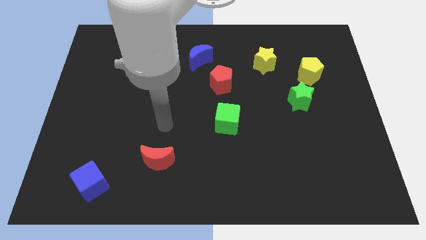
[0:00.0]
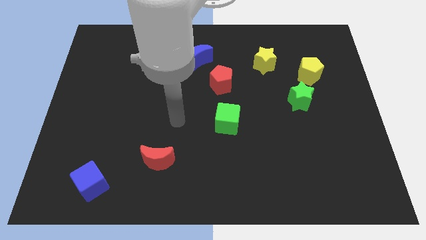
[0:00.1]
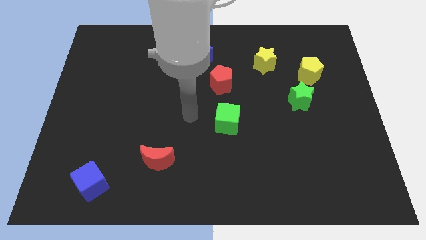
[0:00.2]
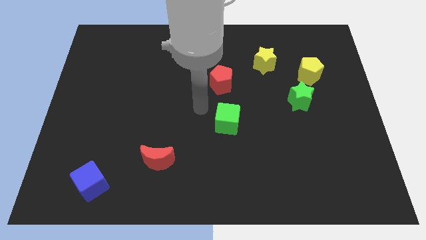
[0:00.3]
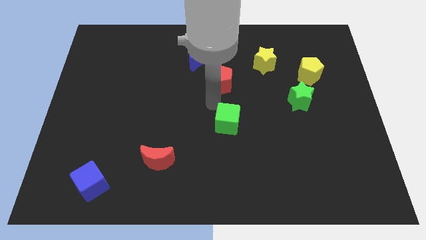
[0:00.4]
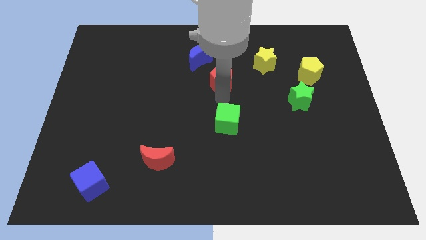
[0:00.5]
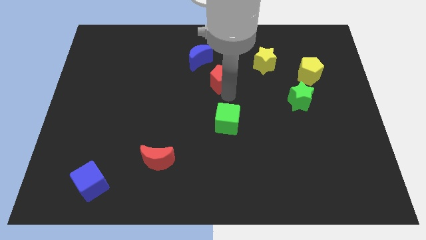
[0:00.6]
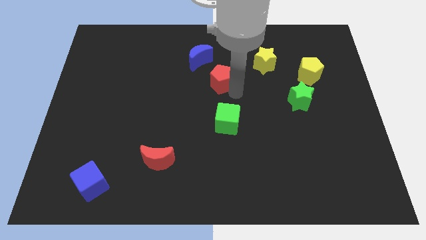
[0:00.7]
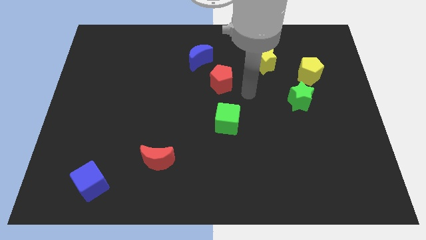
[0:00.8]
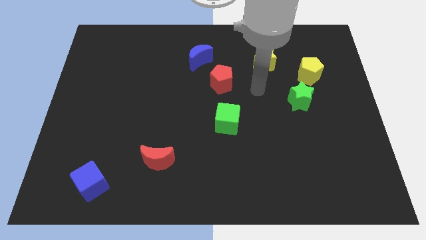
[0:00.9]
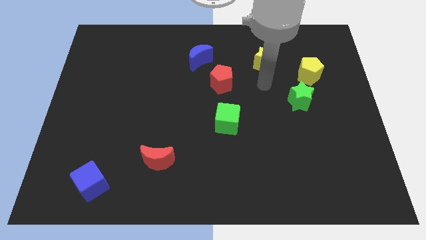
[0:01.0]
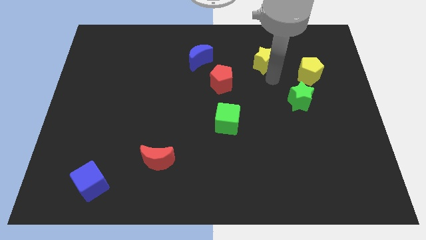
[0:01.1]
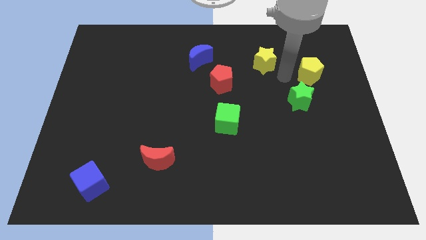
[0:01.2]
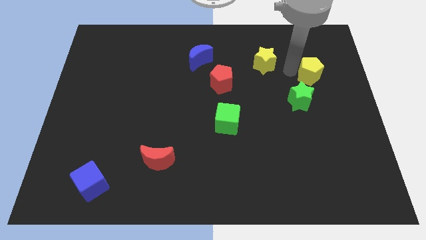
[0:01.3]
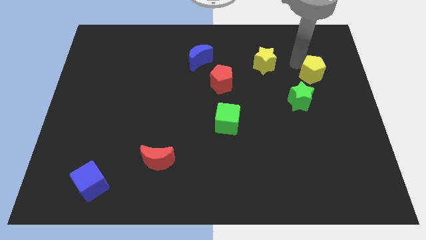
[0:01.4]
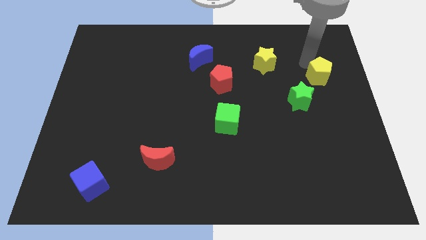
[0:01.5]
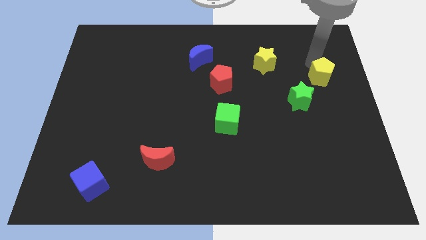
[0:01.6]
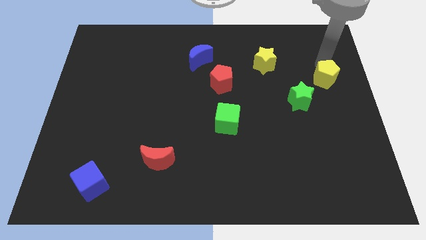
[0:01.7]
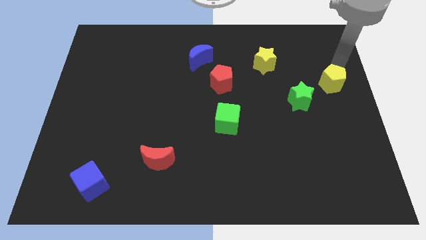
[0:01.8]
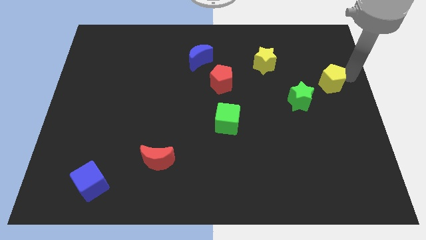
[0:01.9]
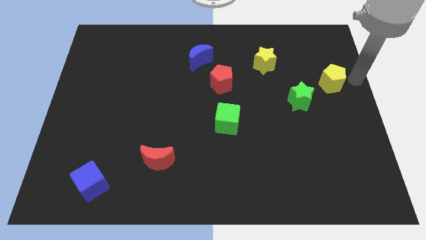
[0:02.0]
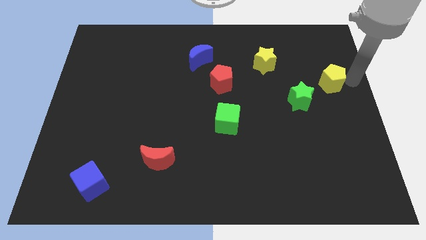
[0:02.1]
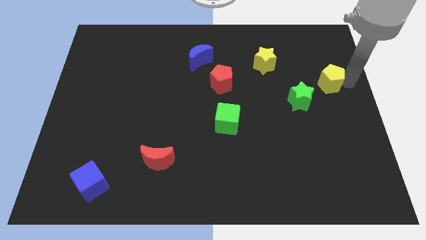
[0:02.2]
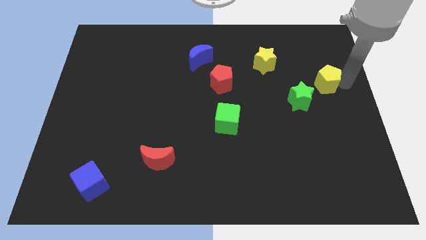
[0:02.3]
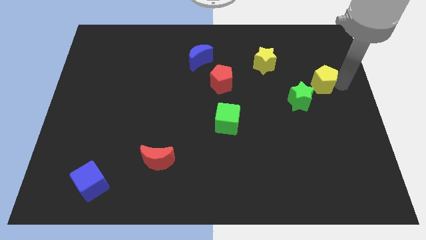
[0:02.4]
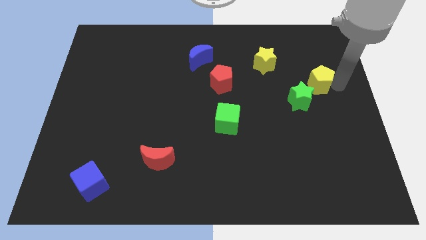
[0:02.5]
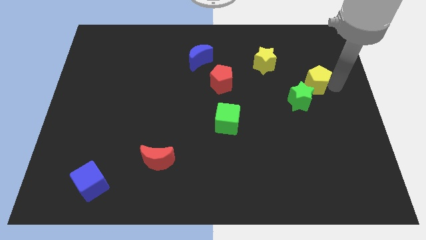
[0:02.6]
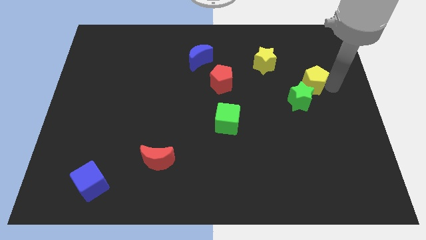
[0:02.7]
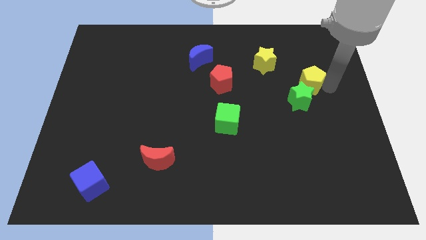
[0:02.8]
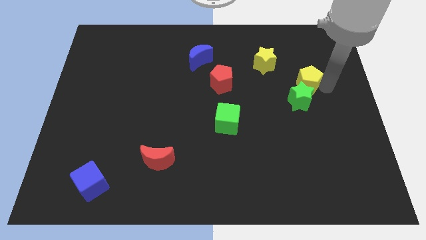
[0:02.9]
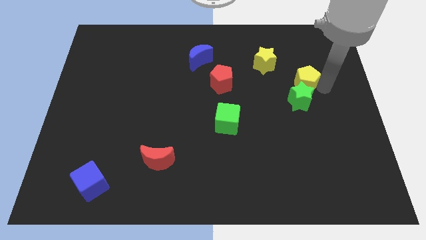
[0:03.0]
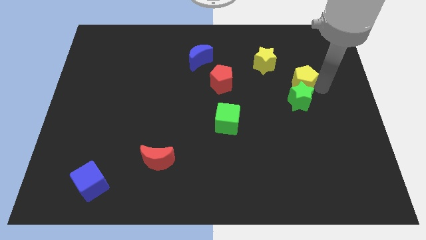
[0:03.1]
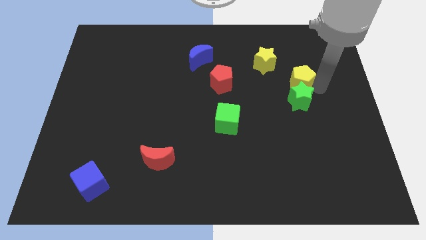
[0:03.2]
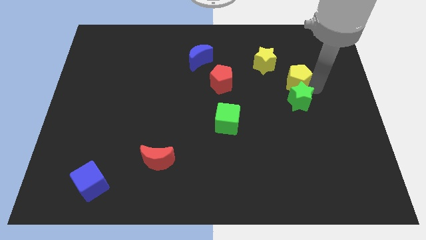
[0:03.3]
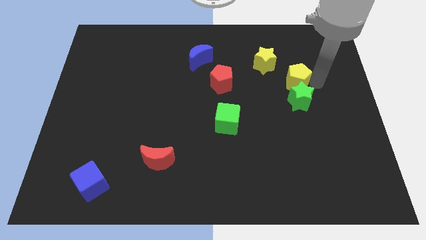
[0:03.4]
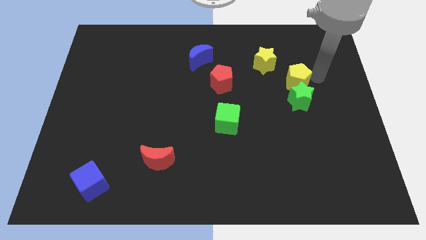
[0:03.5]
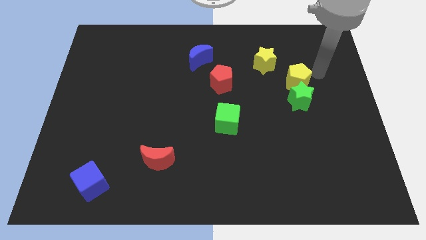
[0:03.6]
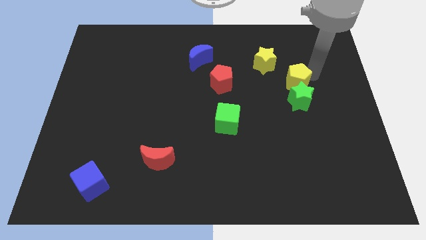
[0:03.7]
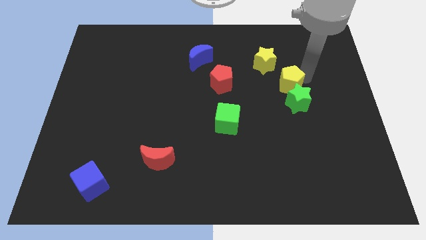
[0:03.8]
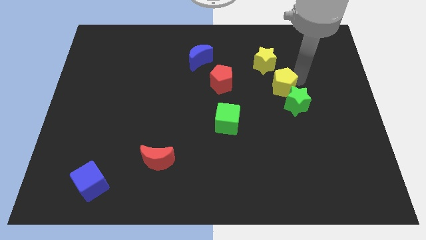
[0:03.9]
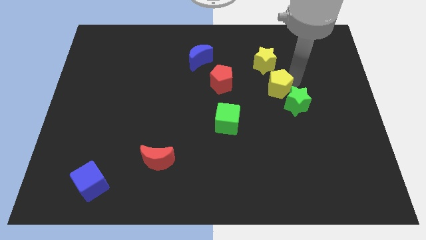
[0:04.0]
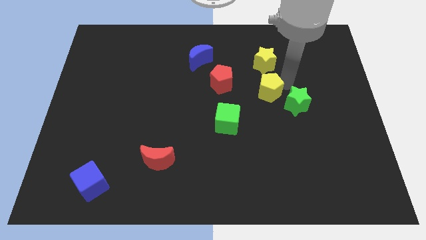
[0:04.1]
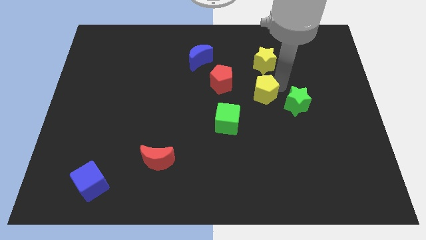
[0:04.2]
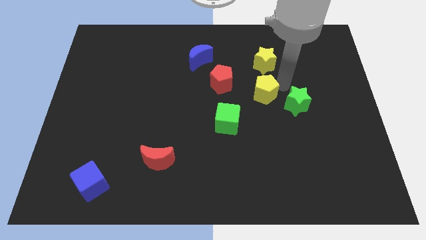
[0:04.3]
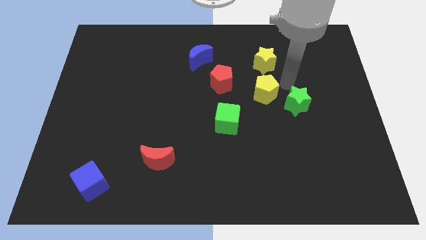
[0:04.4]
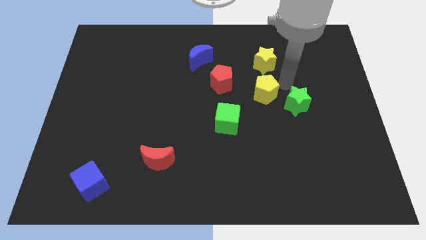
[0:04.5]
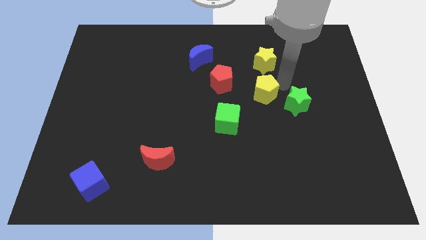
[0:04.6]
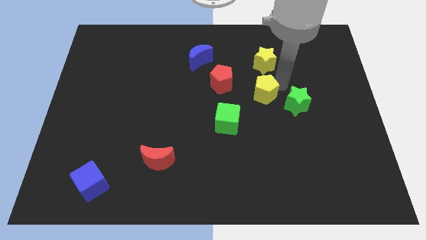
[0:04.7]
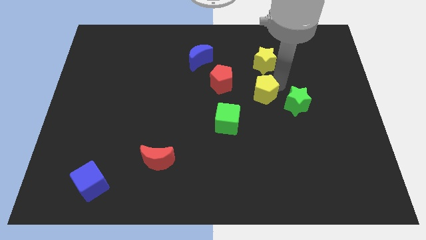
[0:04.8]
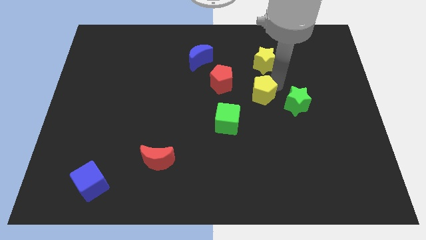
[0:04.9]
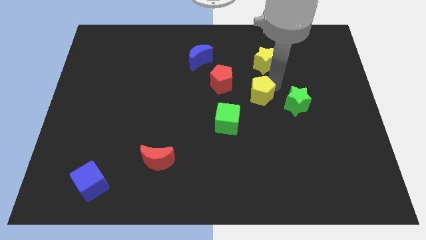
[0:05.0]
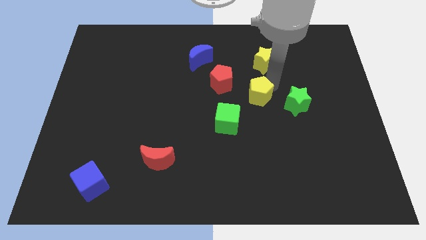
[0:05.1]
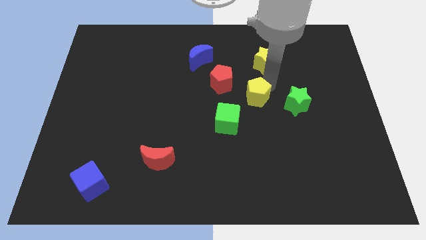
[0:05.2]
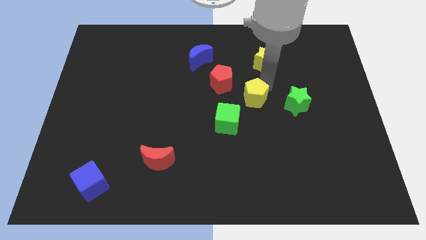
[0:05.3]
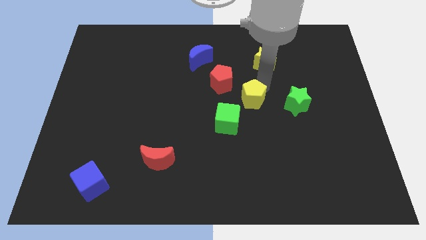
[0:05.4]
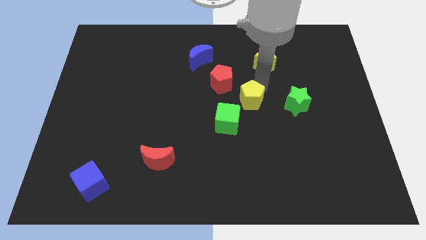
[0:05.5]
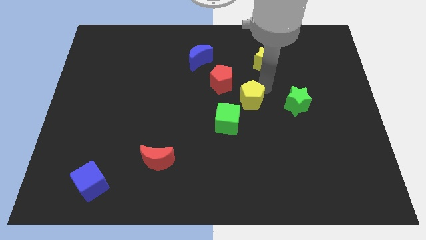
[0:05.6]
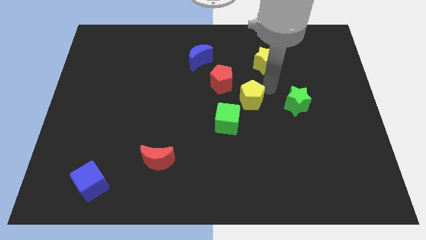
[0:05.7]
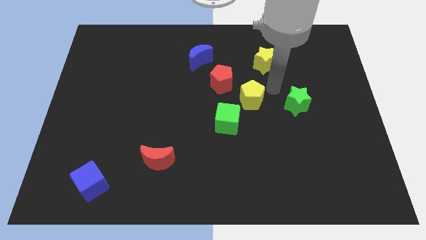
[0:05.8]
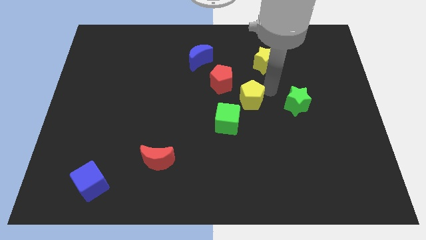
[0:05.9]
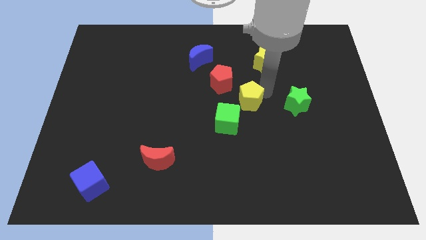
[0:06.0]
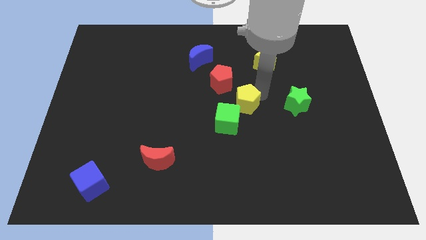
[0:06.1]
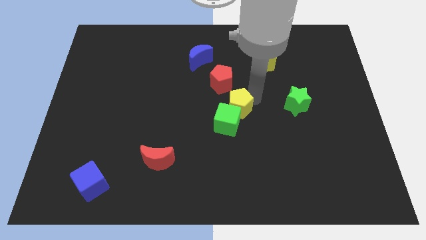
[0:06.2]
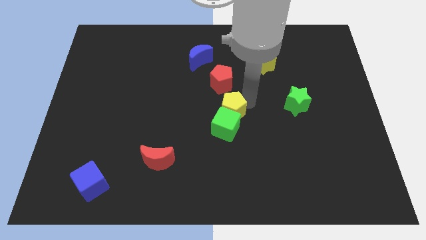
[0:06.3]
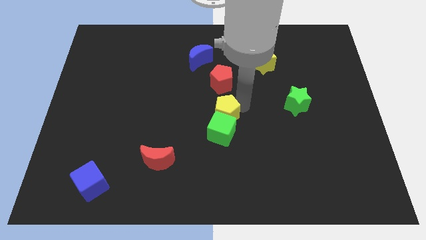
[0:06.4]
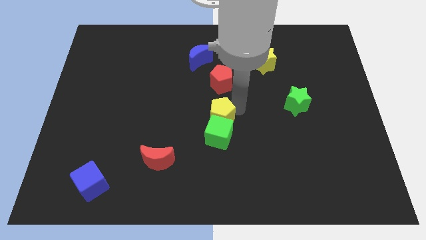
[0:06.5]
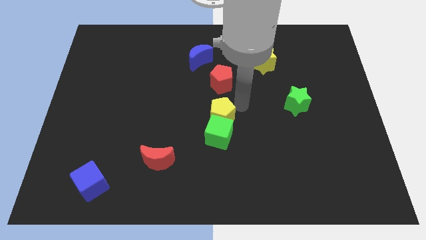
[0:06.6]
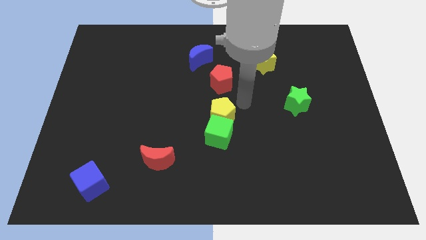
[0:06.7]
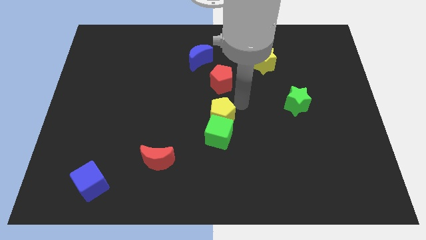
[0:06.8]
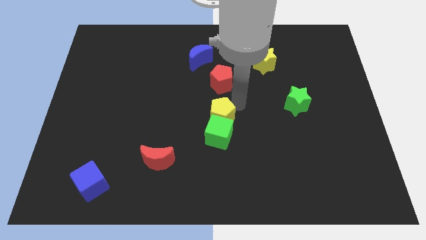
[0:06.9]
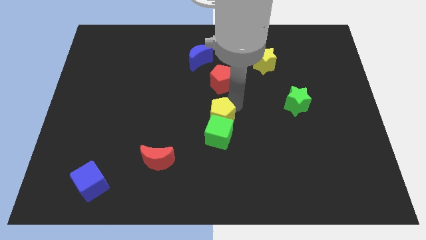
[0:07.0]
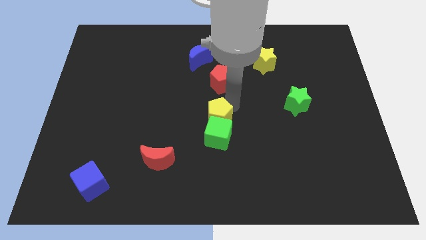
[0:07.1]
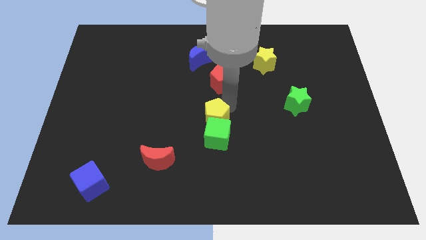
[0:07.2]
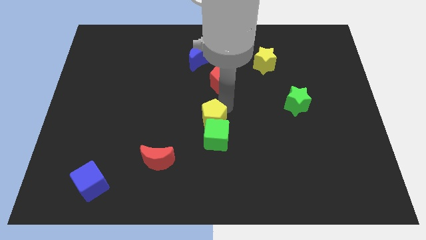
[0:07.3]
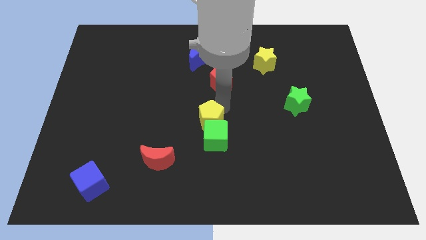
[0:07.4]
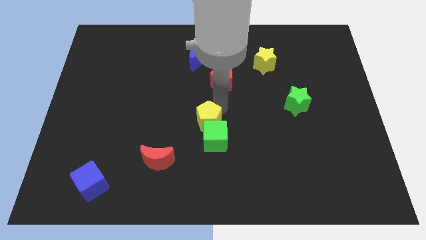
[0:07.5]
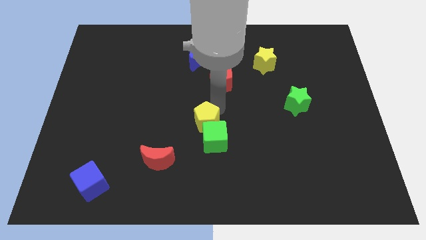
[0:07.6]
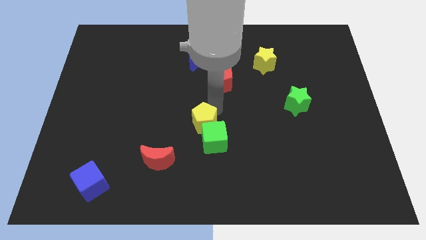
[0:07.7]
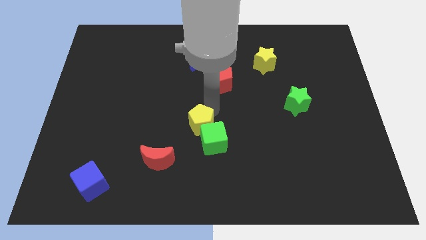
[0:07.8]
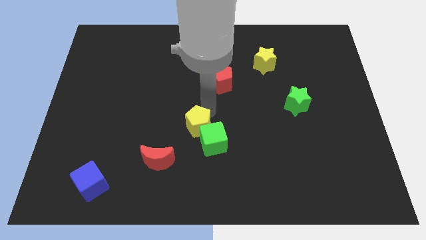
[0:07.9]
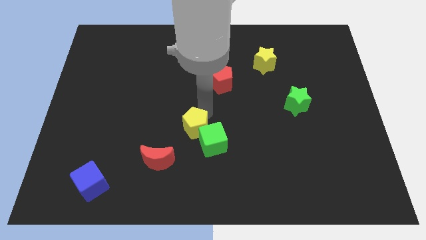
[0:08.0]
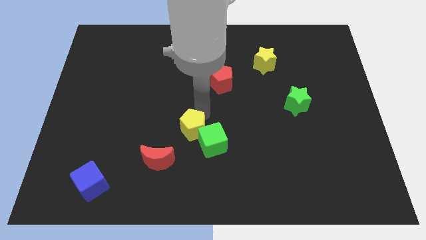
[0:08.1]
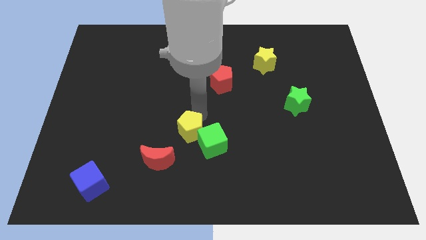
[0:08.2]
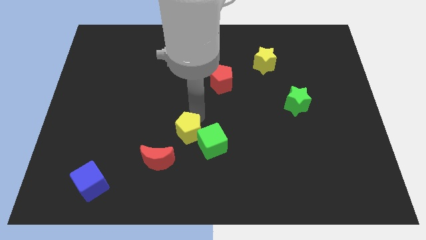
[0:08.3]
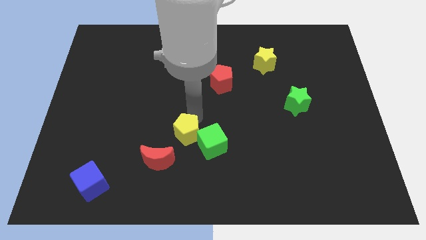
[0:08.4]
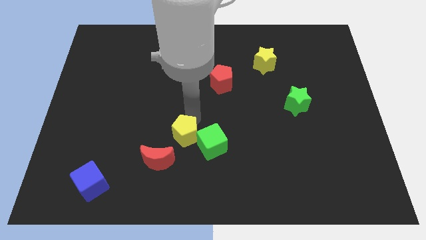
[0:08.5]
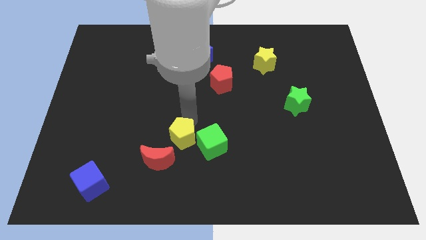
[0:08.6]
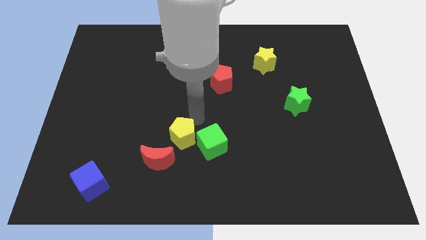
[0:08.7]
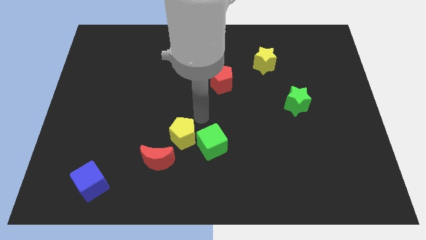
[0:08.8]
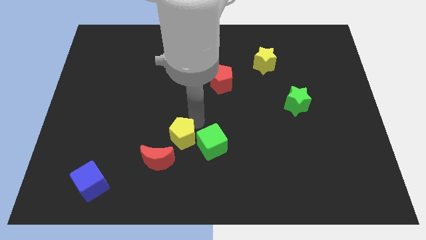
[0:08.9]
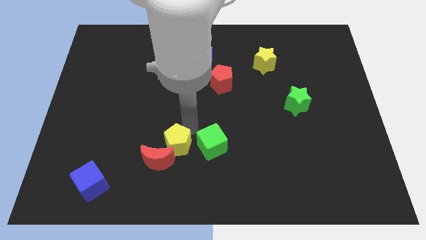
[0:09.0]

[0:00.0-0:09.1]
put the yellow pentagon towards the red moon
